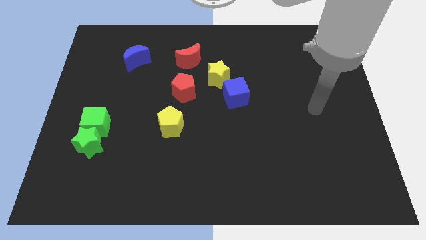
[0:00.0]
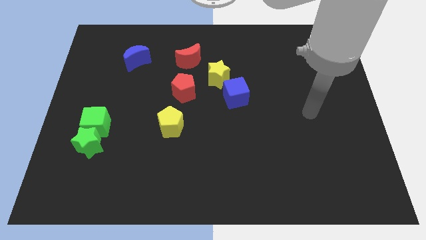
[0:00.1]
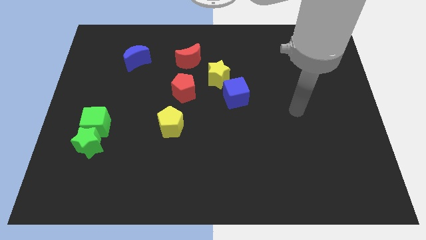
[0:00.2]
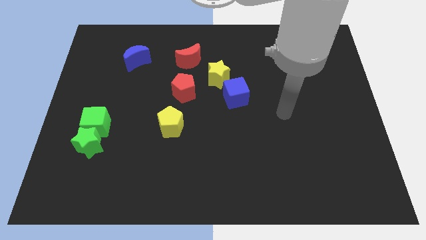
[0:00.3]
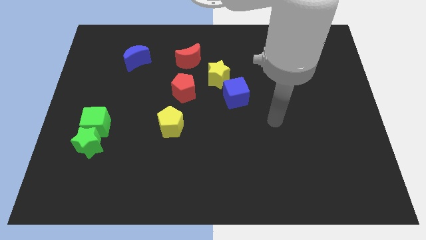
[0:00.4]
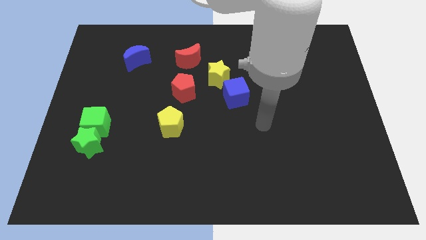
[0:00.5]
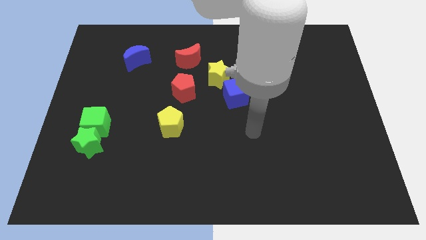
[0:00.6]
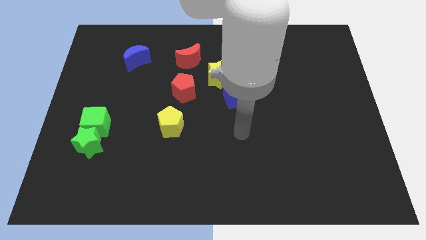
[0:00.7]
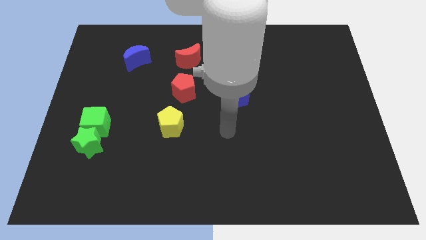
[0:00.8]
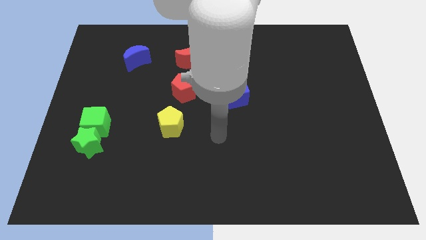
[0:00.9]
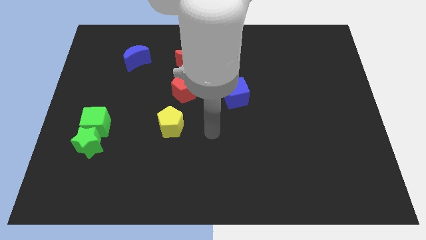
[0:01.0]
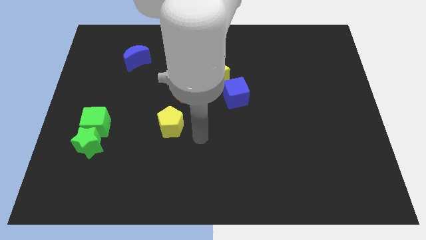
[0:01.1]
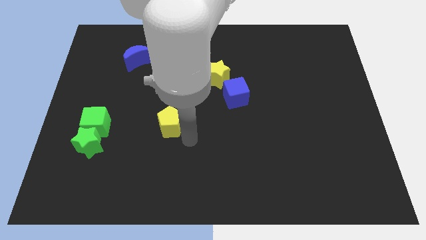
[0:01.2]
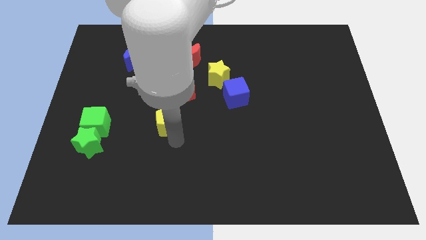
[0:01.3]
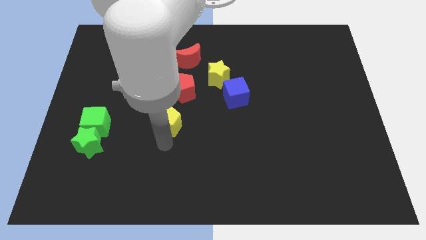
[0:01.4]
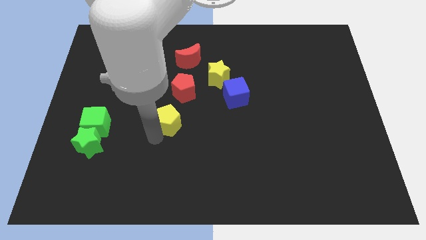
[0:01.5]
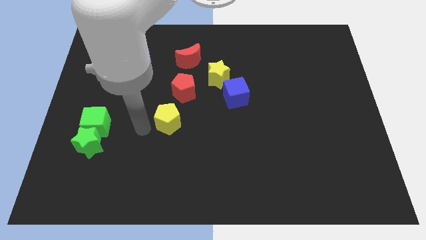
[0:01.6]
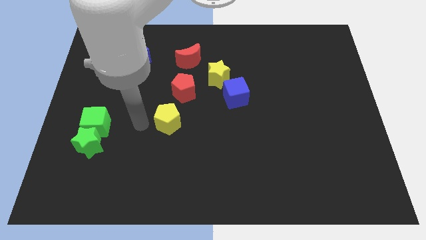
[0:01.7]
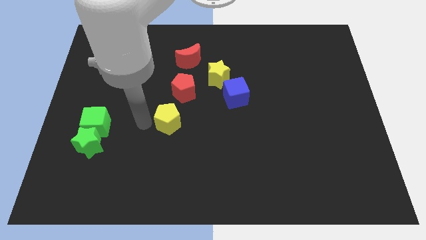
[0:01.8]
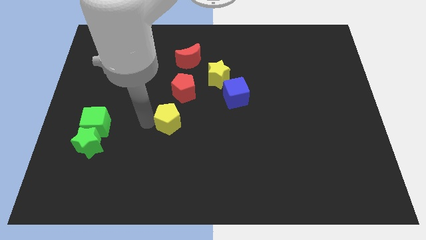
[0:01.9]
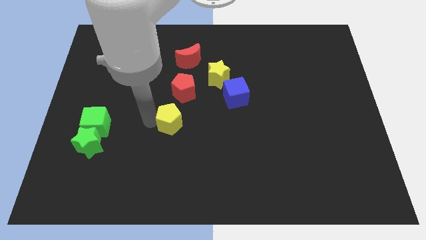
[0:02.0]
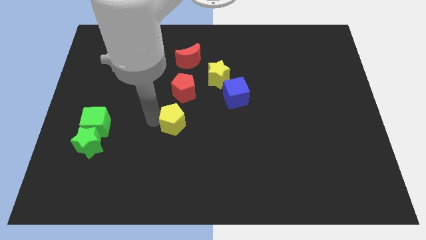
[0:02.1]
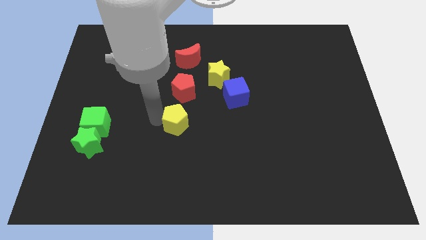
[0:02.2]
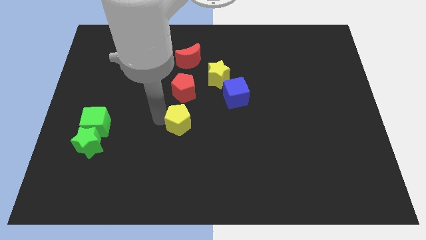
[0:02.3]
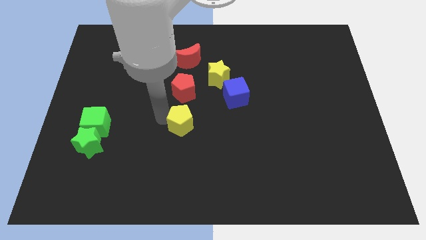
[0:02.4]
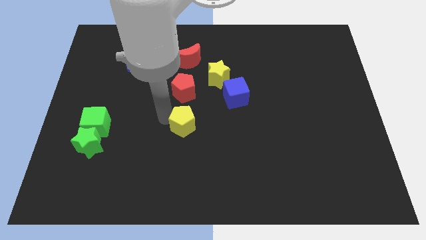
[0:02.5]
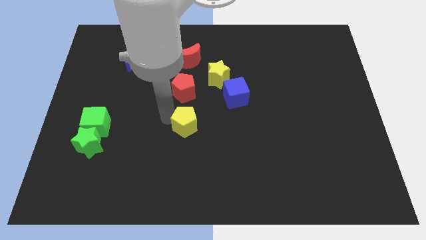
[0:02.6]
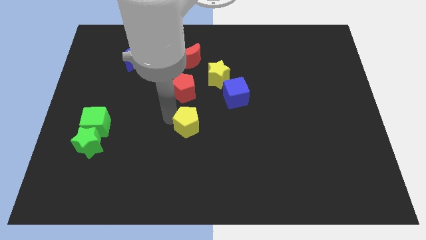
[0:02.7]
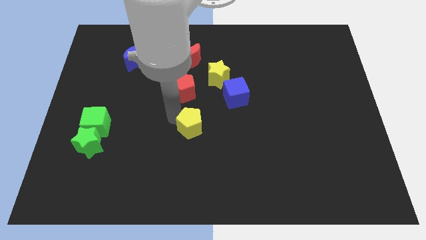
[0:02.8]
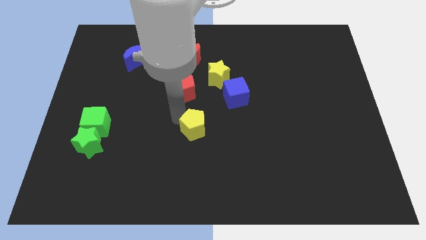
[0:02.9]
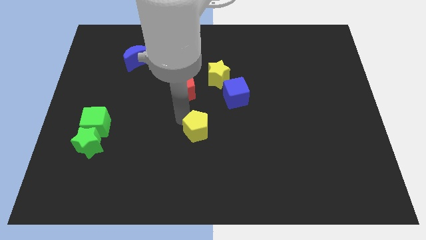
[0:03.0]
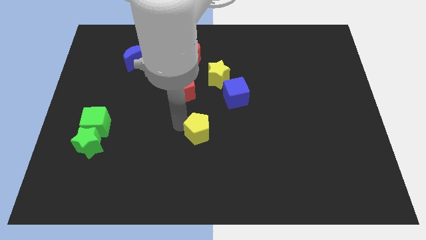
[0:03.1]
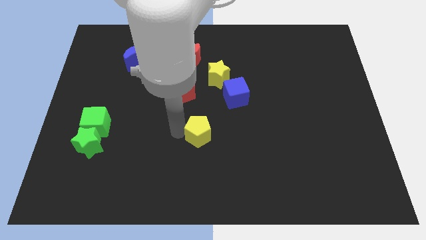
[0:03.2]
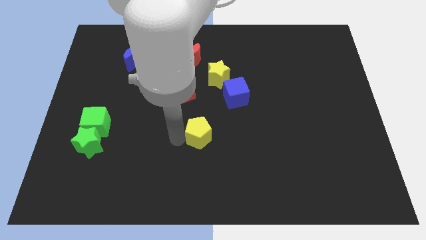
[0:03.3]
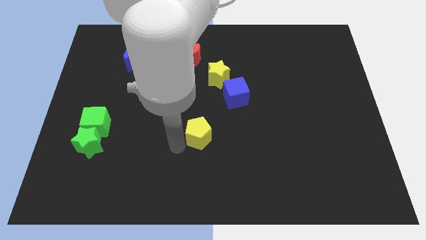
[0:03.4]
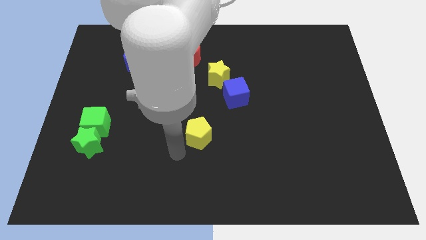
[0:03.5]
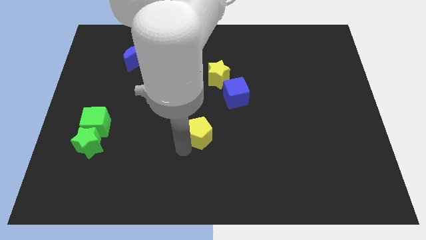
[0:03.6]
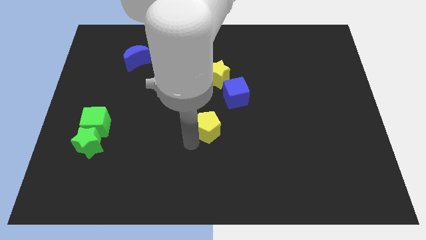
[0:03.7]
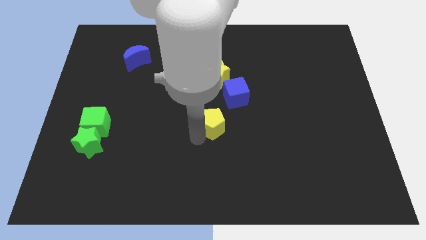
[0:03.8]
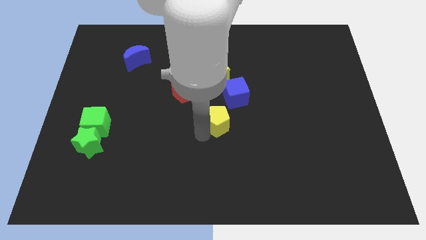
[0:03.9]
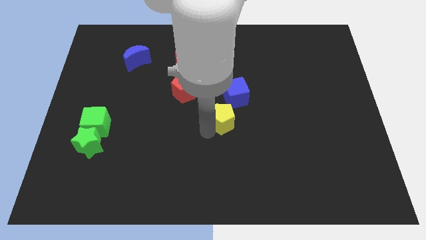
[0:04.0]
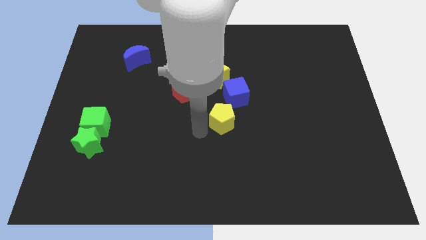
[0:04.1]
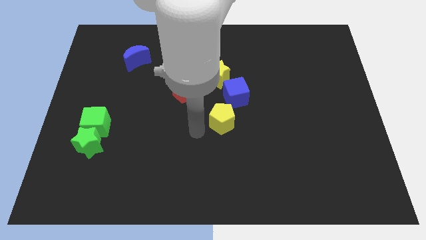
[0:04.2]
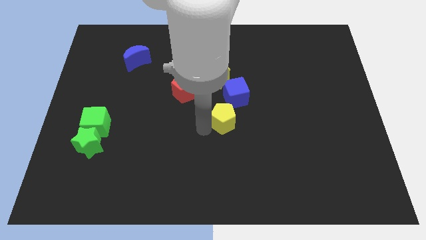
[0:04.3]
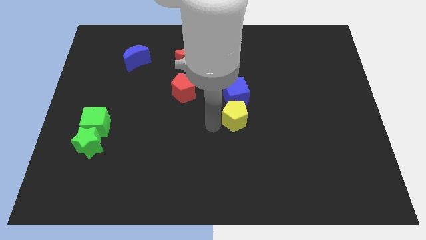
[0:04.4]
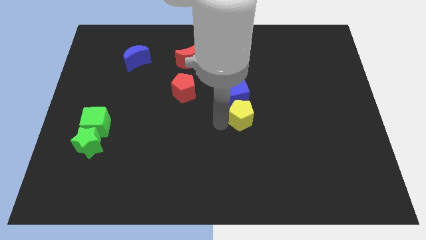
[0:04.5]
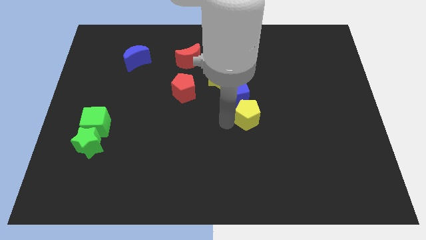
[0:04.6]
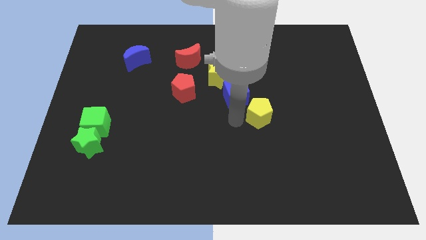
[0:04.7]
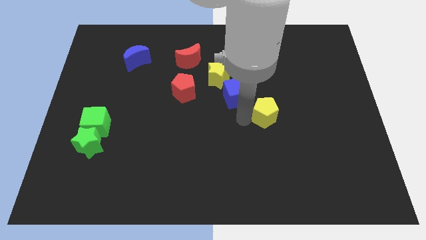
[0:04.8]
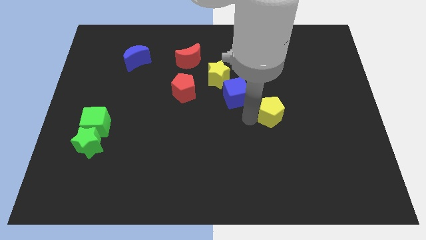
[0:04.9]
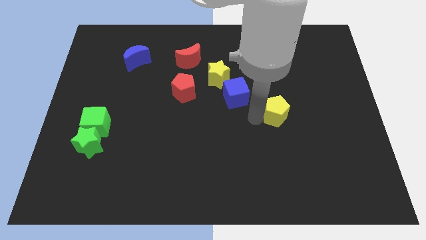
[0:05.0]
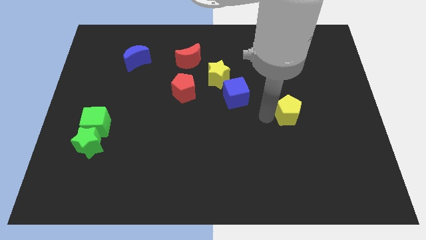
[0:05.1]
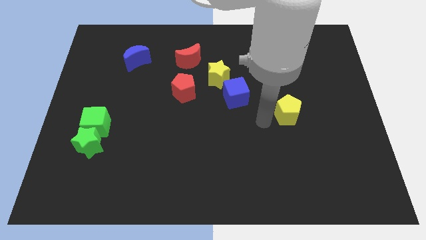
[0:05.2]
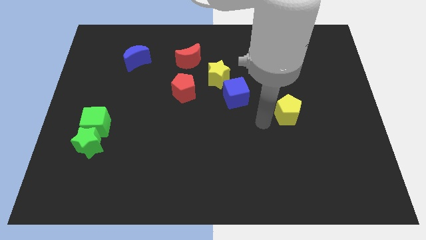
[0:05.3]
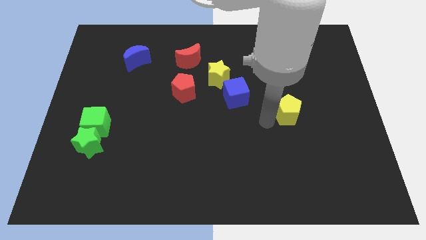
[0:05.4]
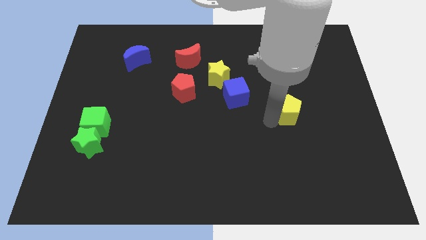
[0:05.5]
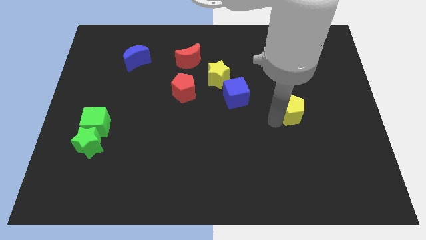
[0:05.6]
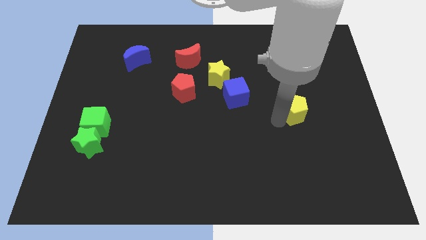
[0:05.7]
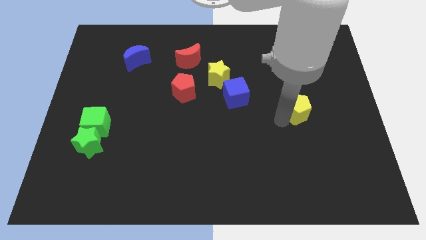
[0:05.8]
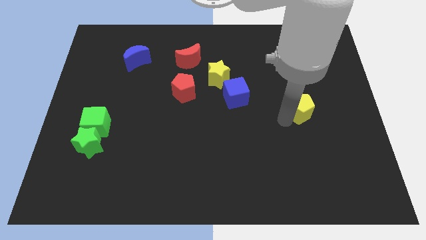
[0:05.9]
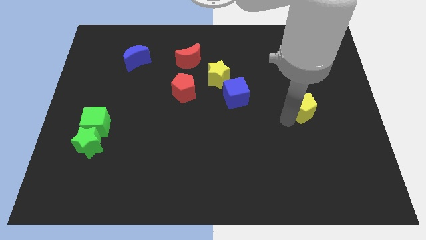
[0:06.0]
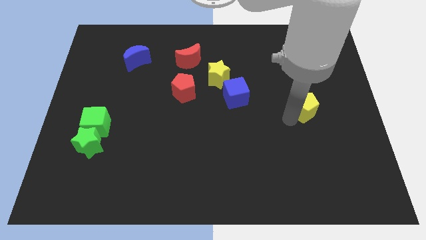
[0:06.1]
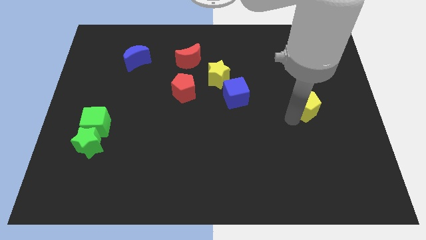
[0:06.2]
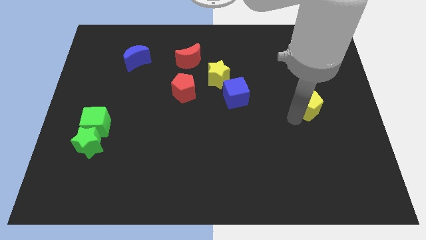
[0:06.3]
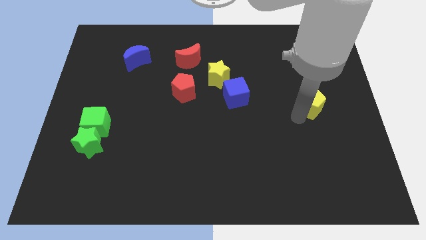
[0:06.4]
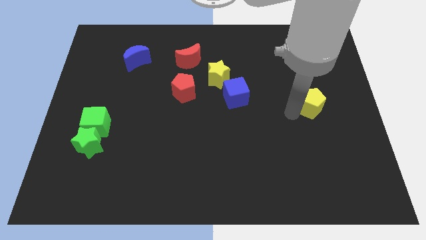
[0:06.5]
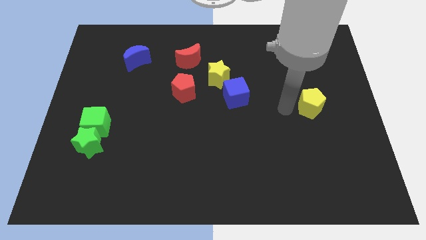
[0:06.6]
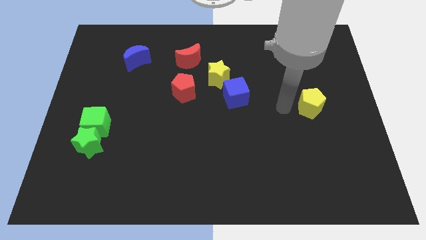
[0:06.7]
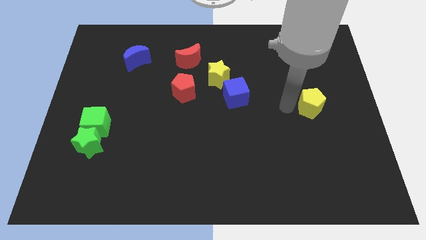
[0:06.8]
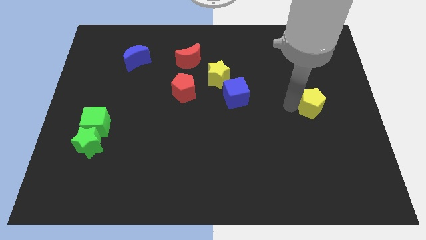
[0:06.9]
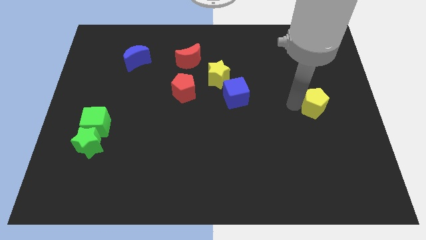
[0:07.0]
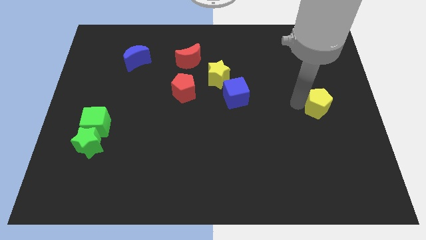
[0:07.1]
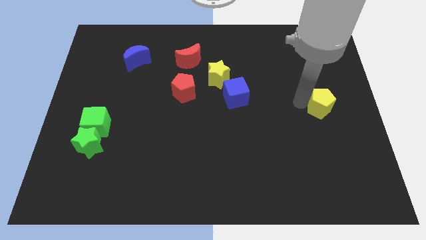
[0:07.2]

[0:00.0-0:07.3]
push the yellow pentagon to the right side of the board
